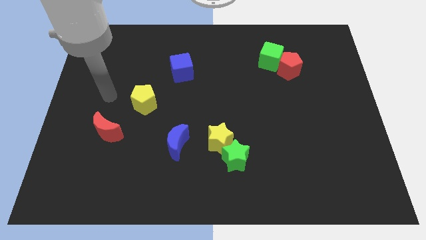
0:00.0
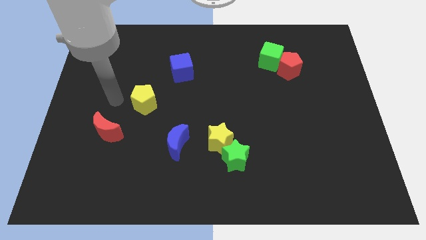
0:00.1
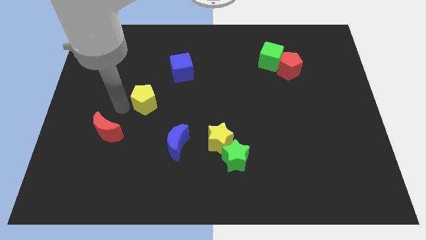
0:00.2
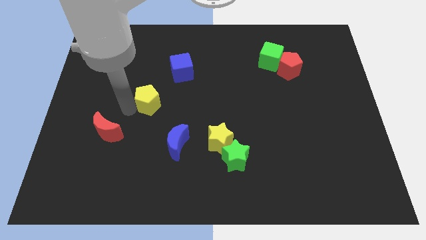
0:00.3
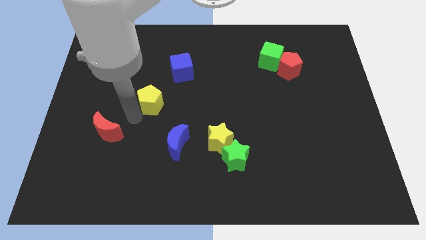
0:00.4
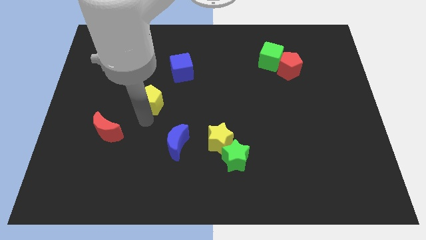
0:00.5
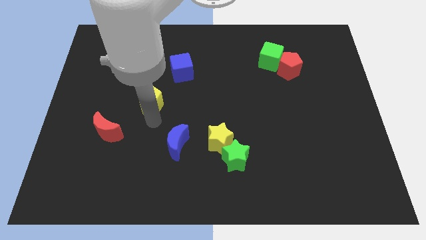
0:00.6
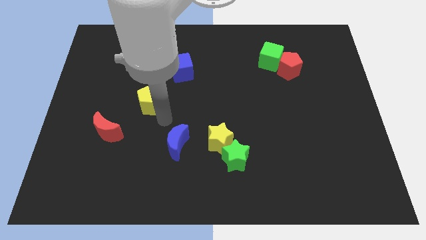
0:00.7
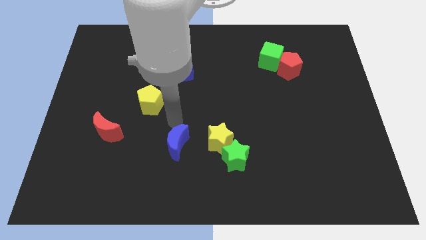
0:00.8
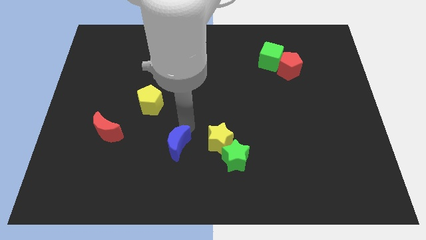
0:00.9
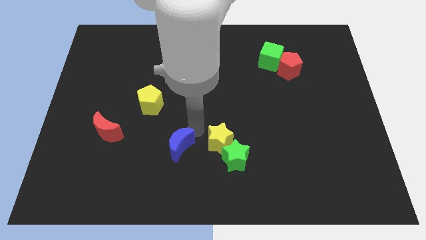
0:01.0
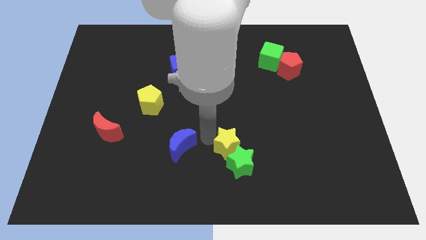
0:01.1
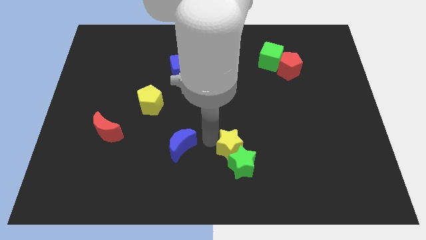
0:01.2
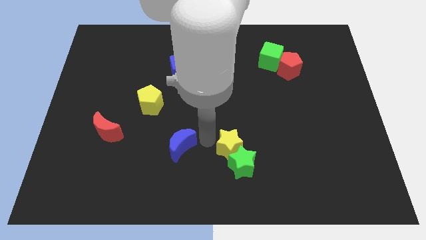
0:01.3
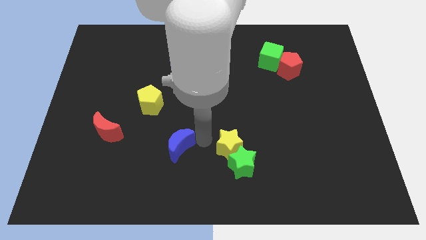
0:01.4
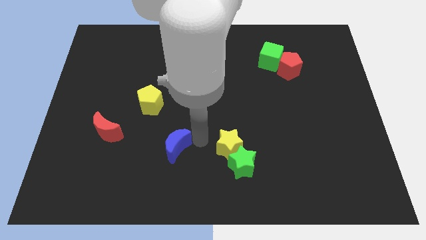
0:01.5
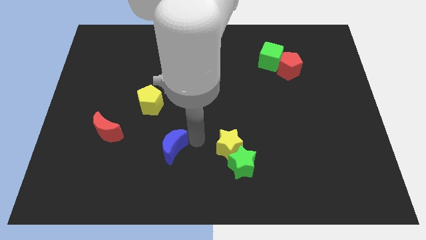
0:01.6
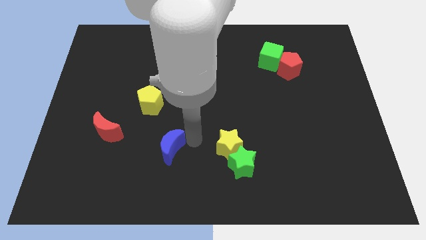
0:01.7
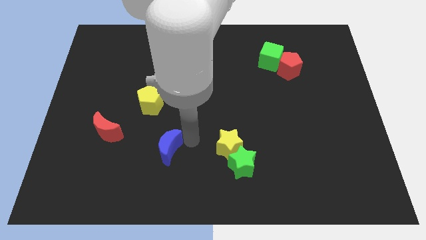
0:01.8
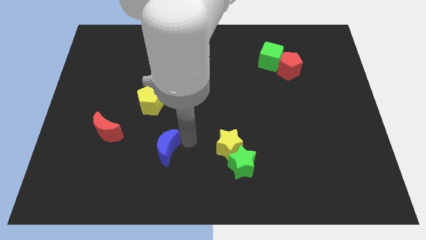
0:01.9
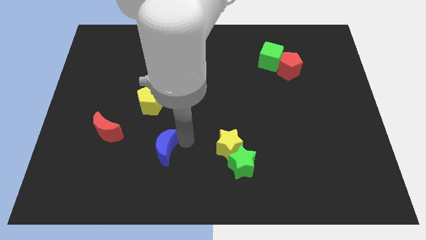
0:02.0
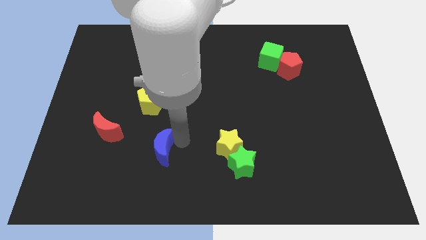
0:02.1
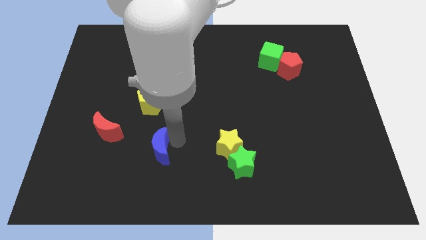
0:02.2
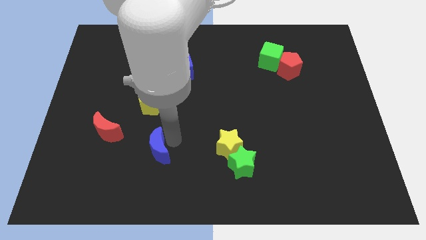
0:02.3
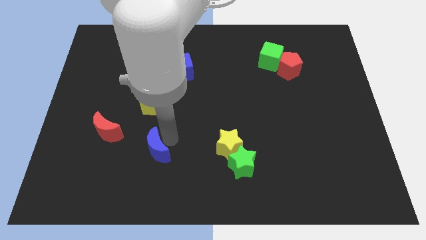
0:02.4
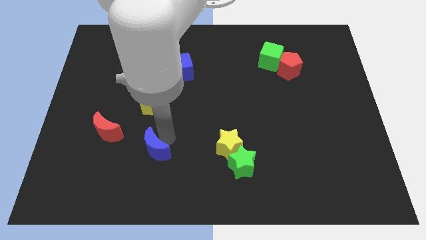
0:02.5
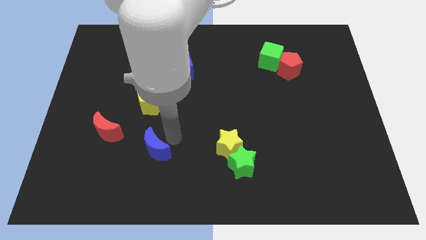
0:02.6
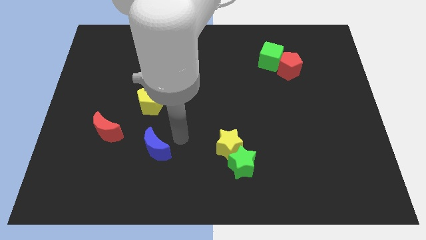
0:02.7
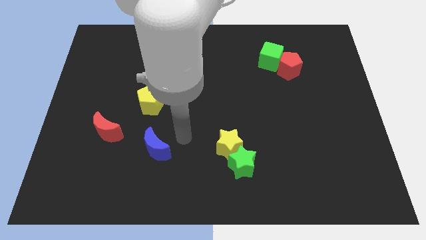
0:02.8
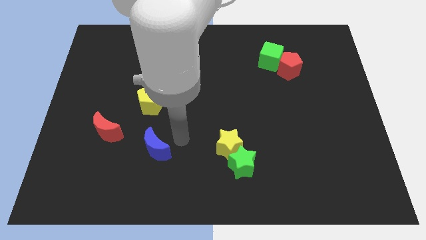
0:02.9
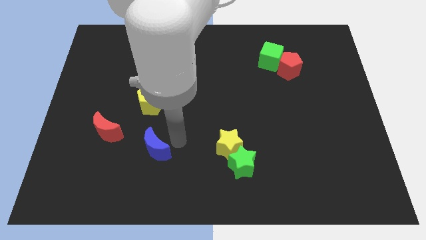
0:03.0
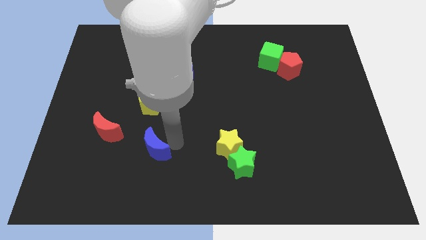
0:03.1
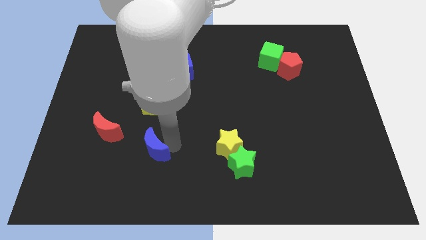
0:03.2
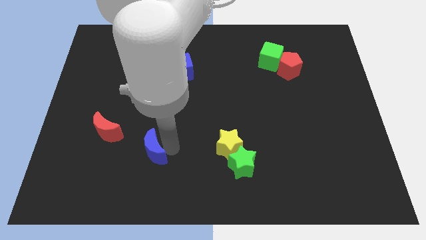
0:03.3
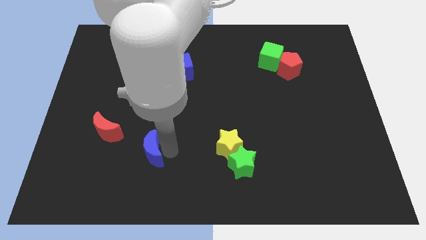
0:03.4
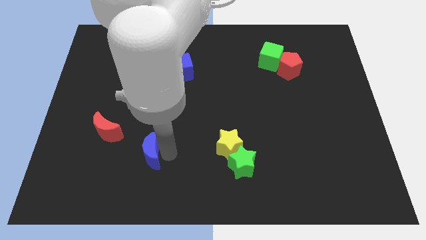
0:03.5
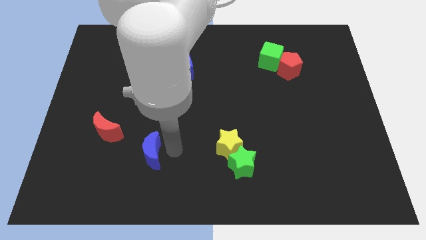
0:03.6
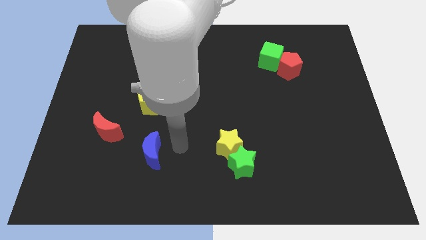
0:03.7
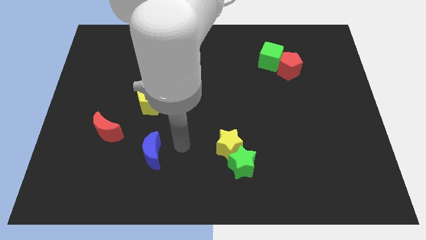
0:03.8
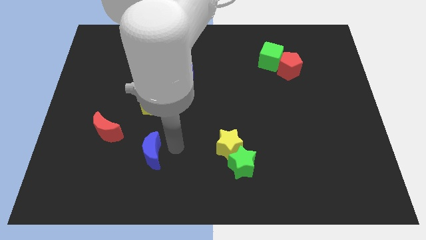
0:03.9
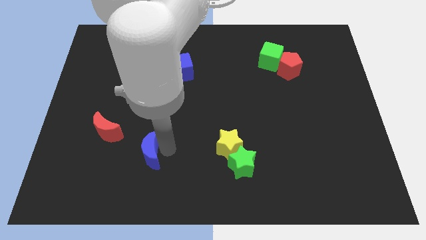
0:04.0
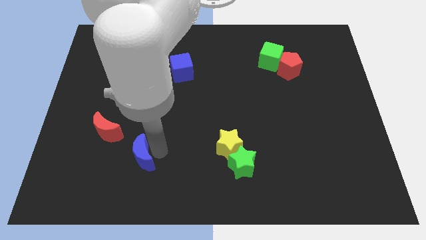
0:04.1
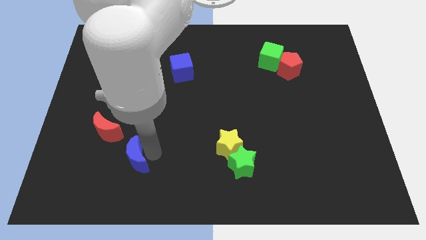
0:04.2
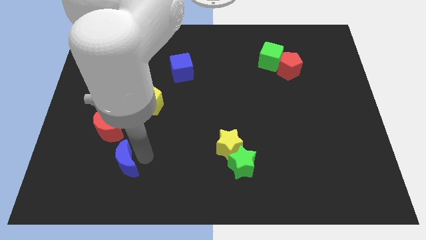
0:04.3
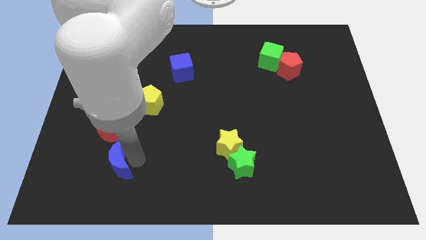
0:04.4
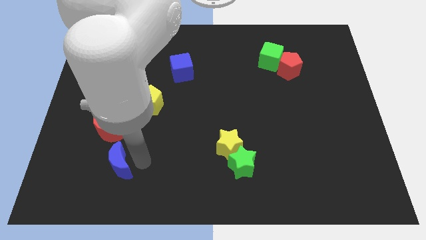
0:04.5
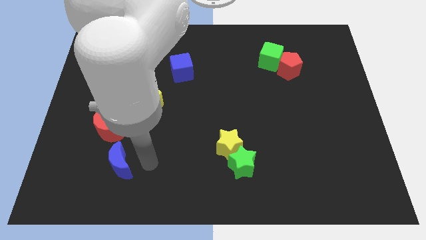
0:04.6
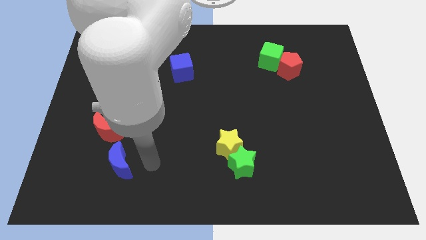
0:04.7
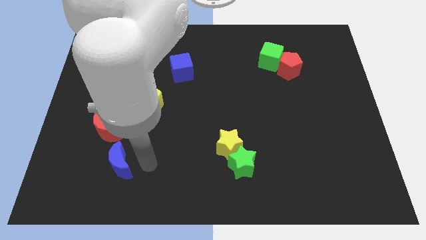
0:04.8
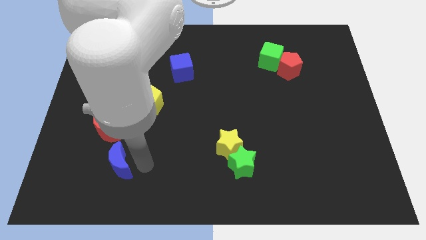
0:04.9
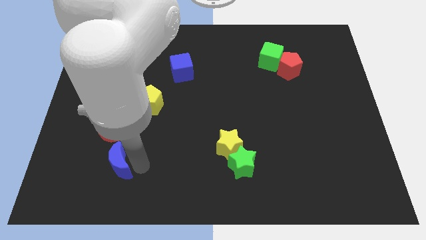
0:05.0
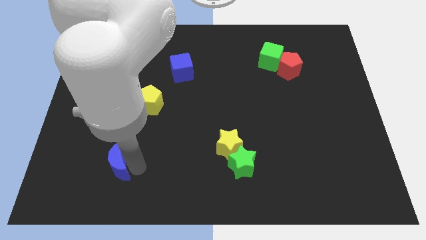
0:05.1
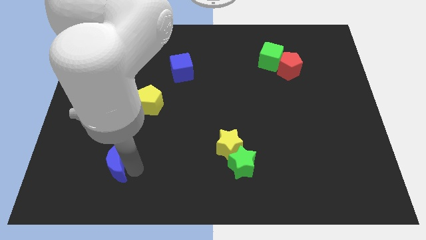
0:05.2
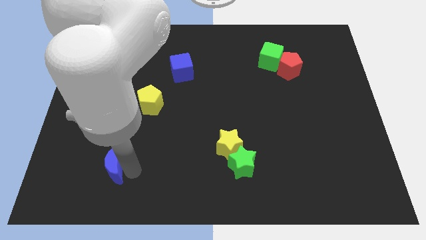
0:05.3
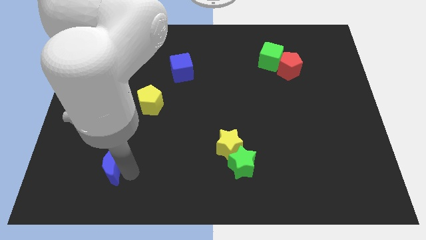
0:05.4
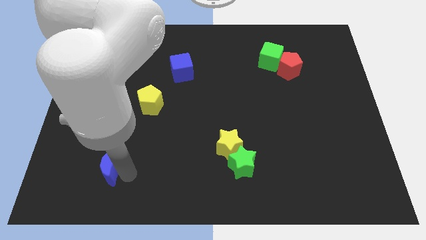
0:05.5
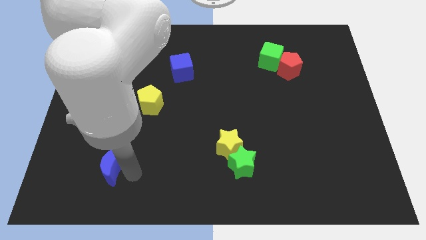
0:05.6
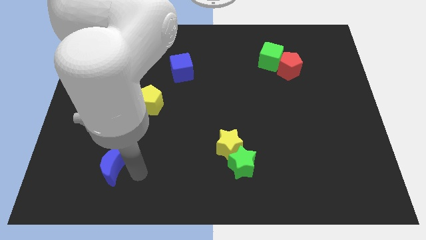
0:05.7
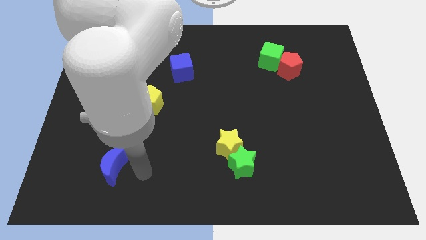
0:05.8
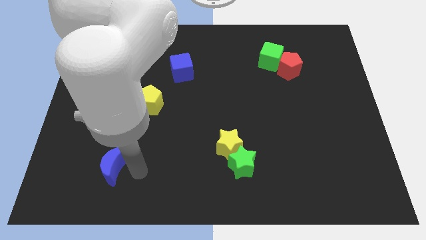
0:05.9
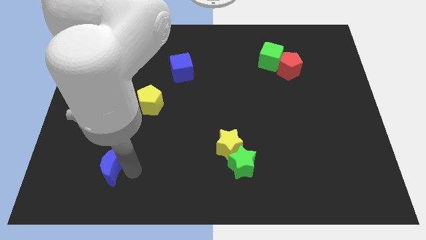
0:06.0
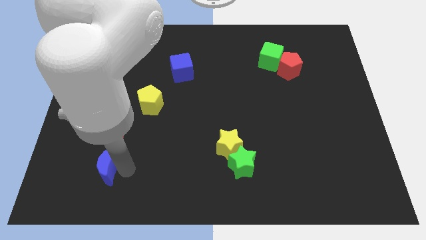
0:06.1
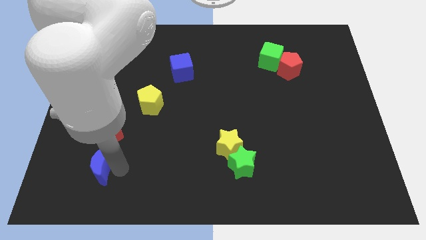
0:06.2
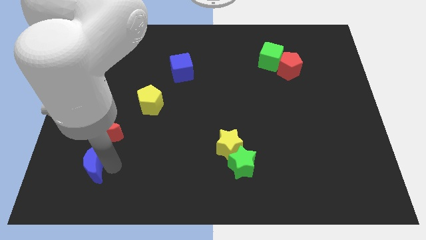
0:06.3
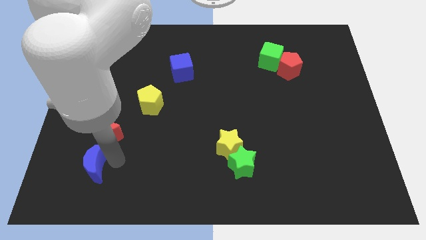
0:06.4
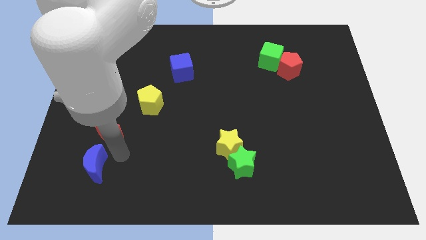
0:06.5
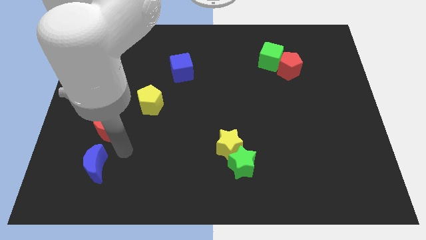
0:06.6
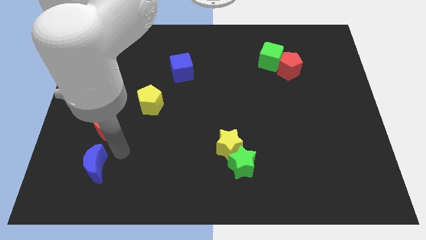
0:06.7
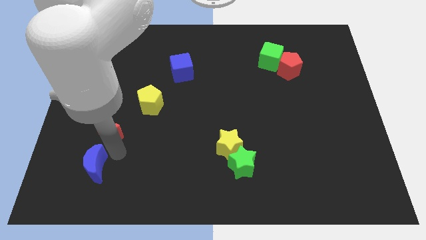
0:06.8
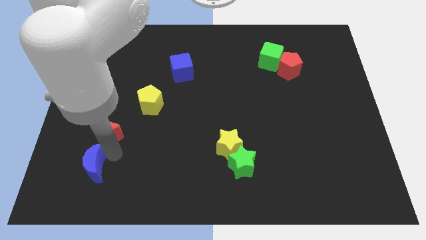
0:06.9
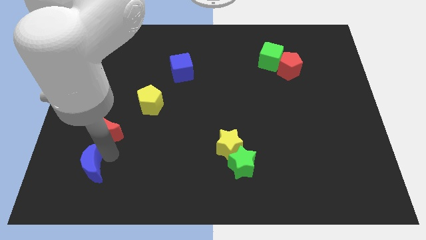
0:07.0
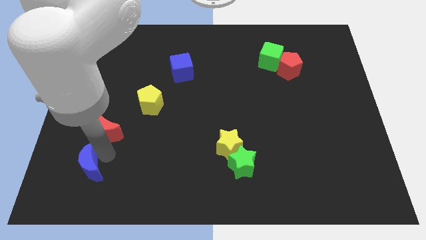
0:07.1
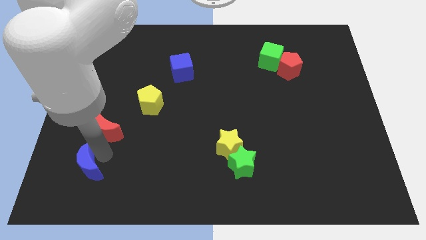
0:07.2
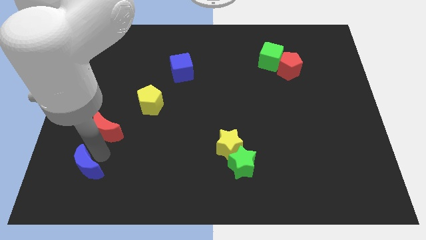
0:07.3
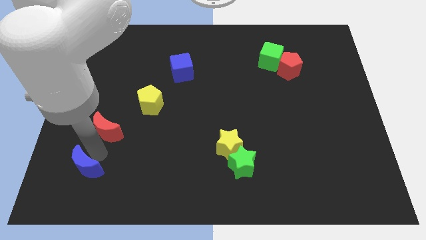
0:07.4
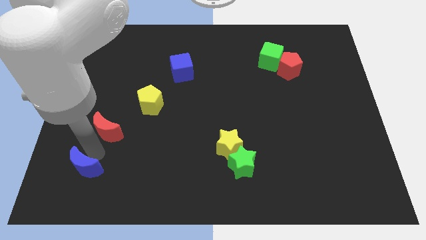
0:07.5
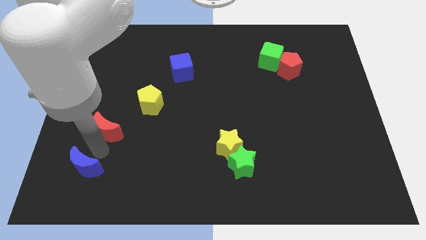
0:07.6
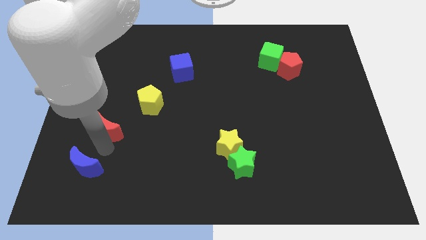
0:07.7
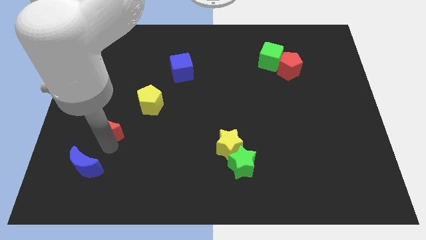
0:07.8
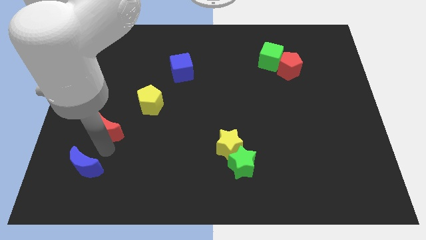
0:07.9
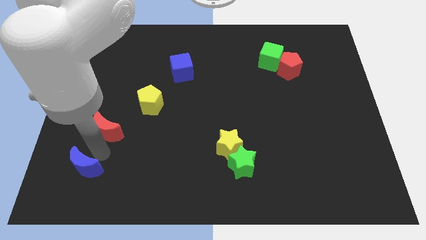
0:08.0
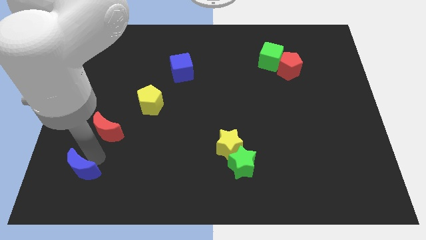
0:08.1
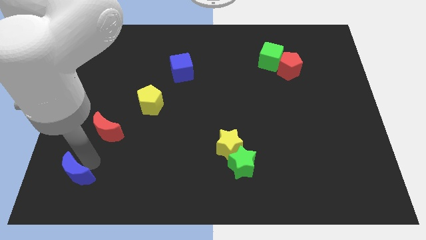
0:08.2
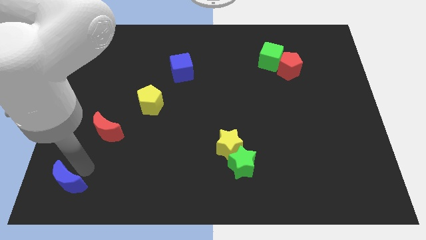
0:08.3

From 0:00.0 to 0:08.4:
slide the blue moon to the bottom left of the board
